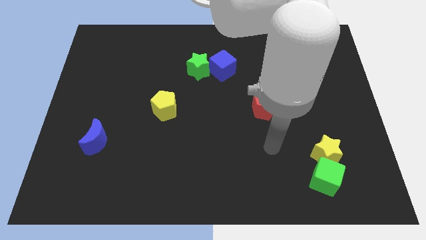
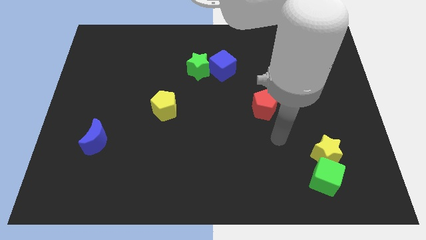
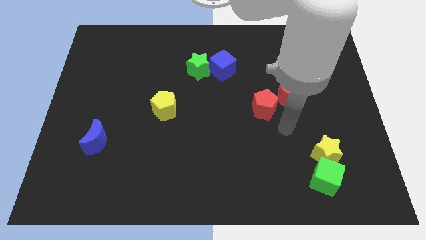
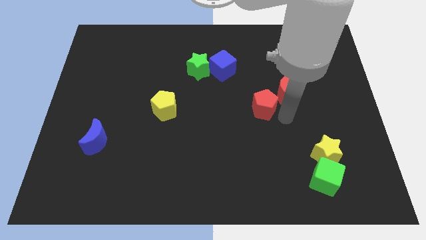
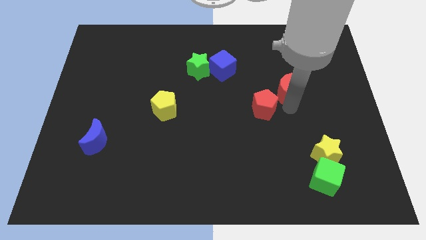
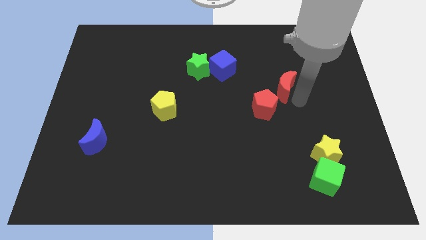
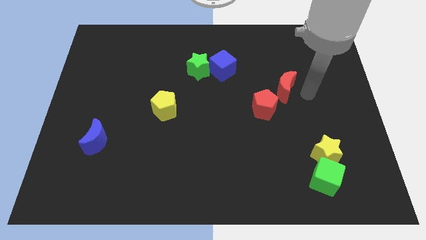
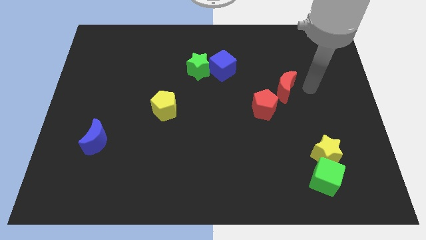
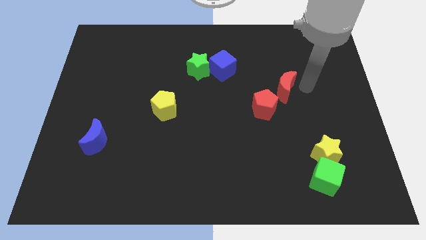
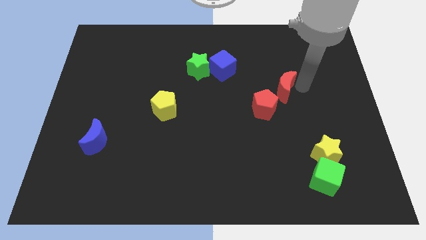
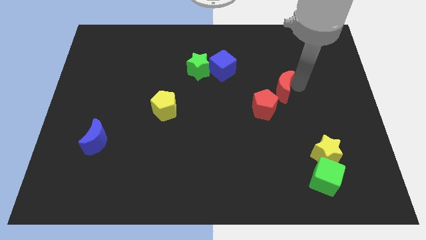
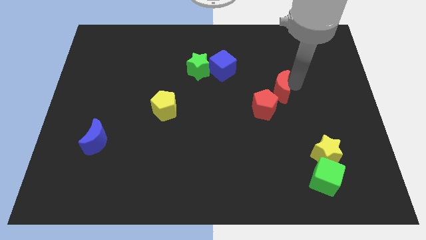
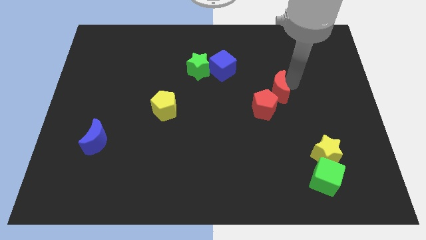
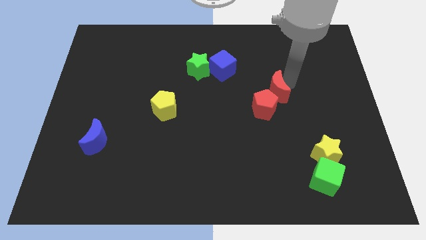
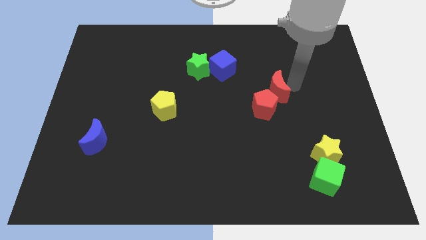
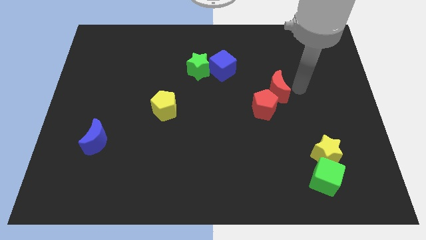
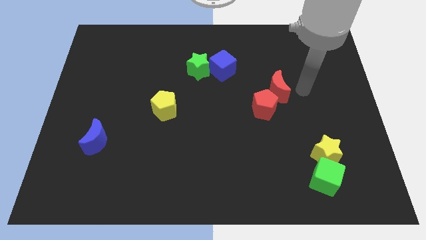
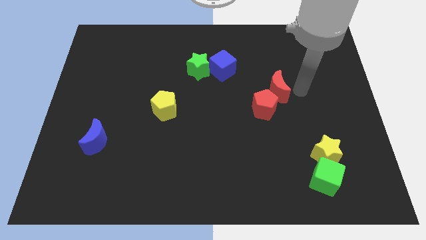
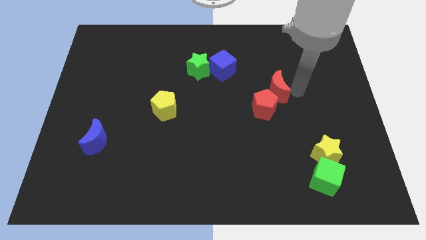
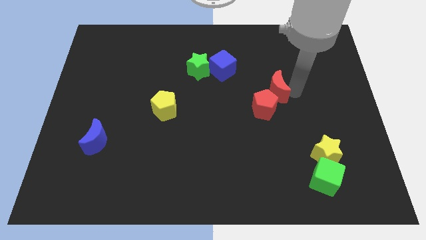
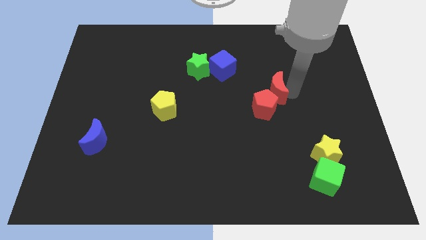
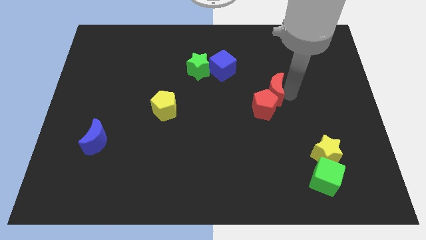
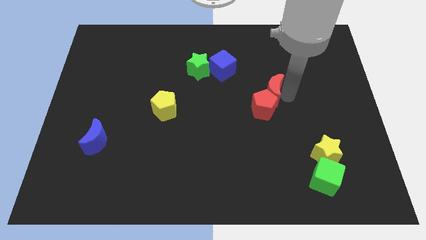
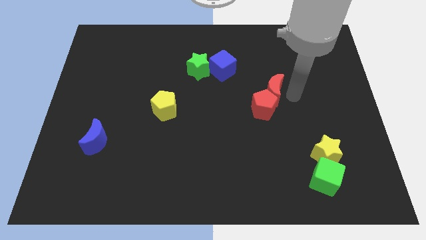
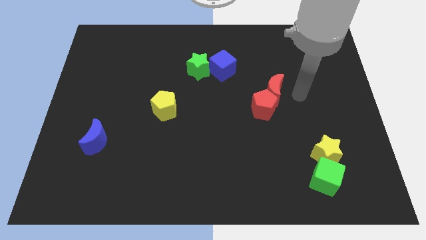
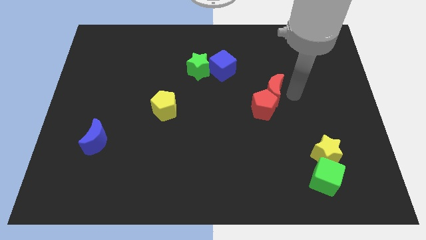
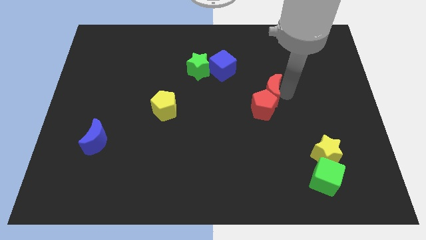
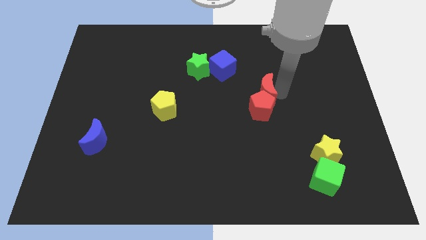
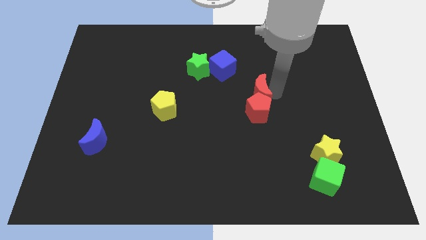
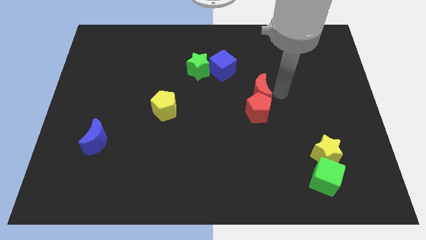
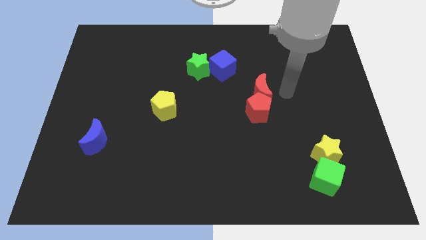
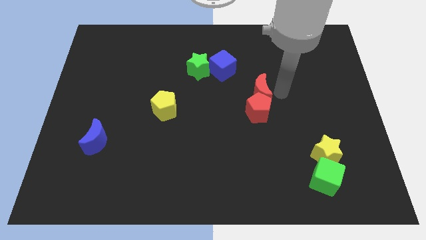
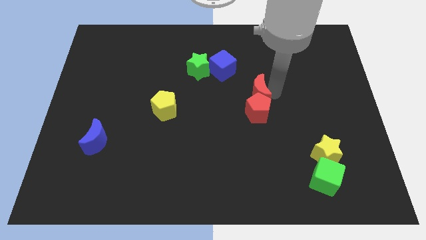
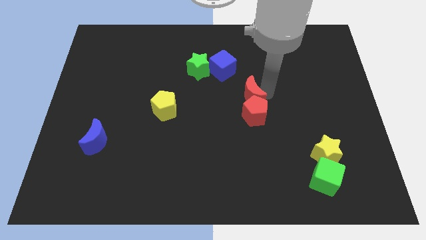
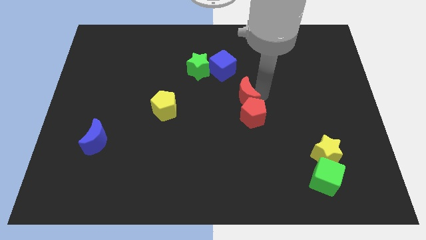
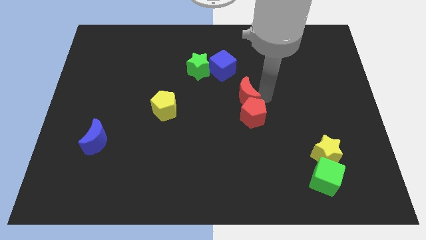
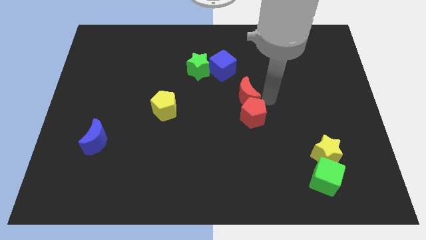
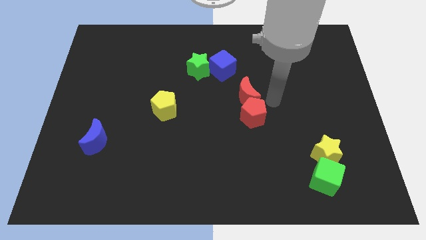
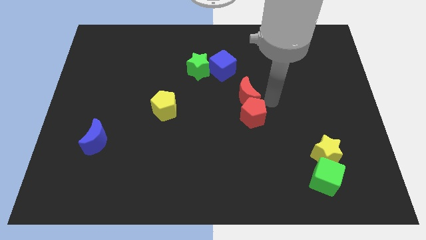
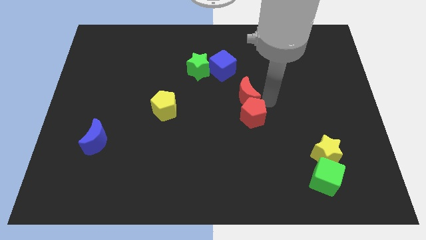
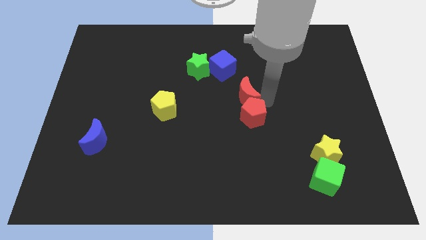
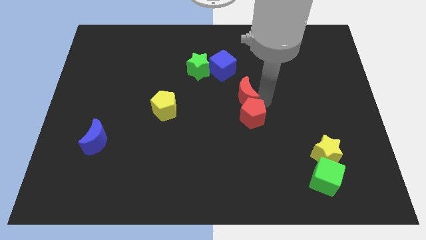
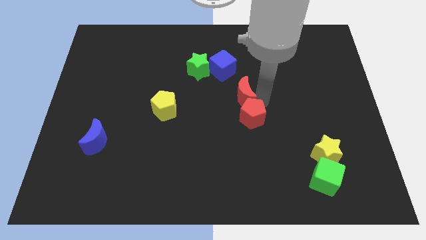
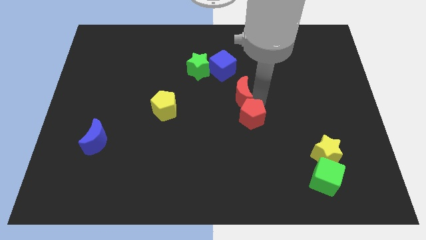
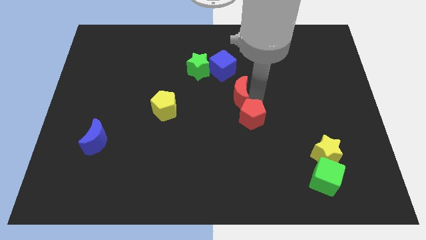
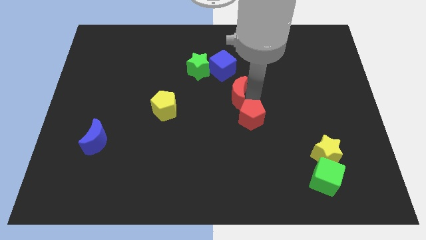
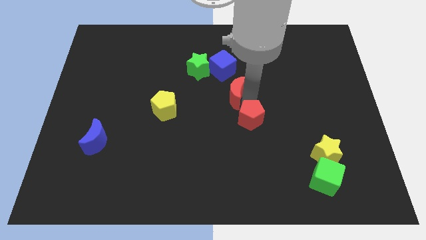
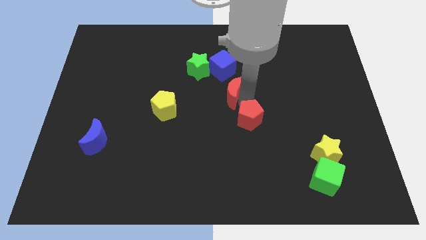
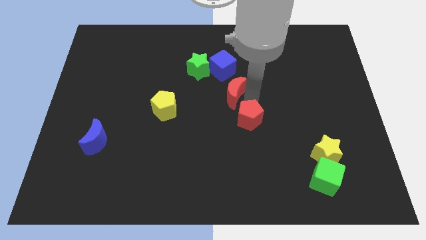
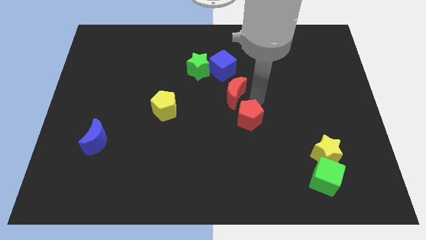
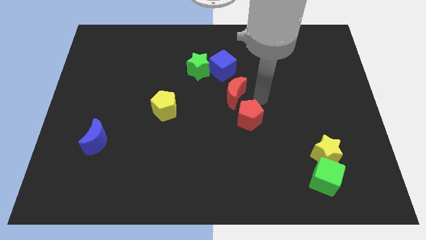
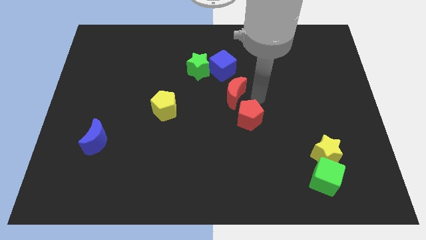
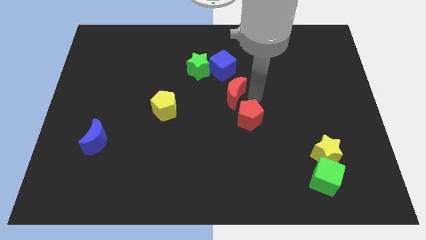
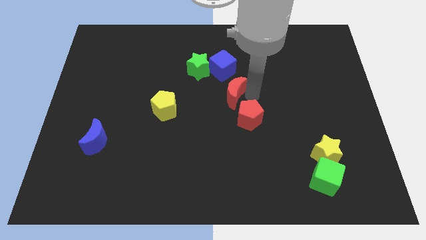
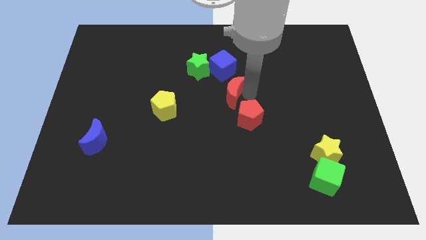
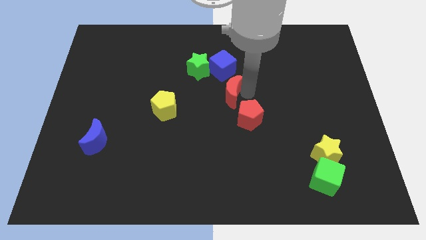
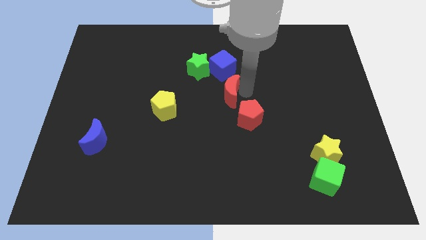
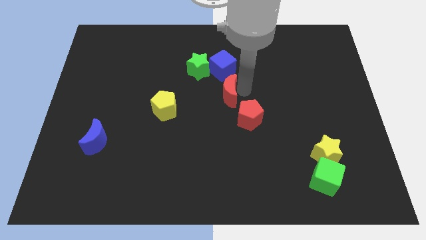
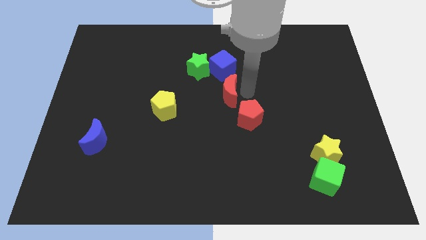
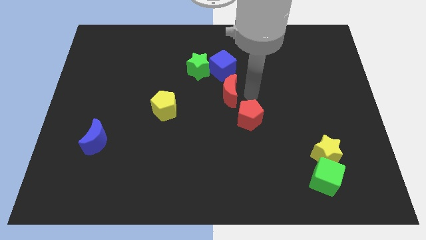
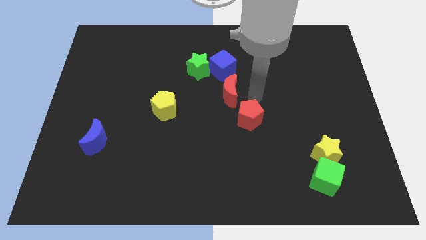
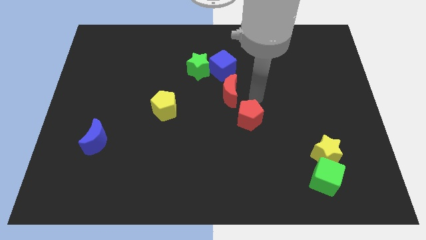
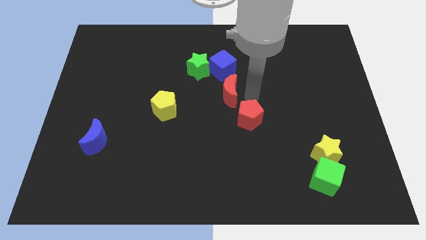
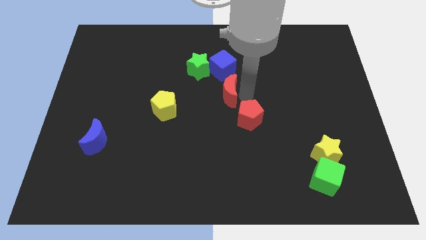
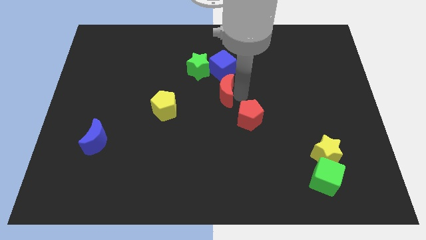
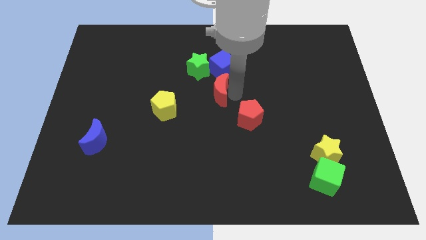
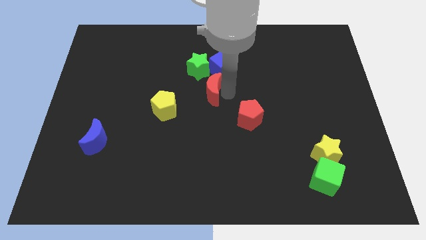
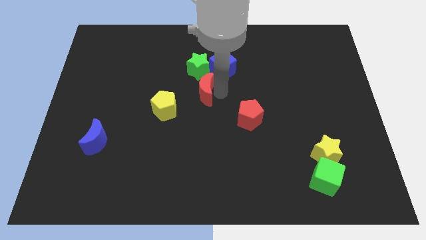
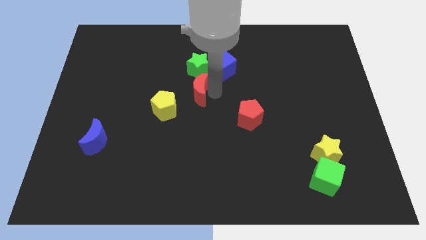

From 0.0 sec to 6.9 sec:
push the red moon left

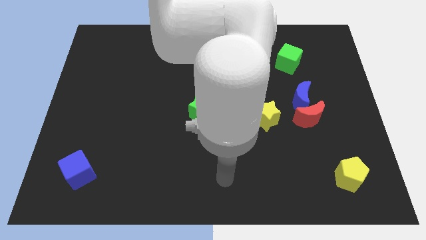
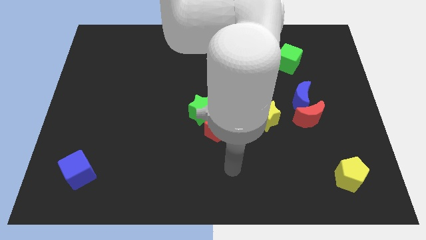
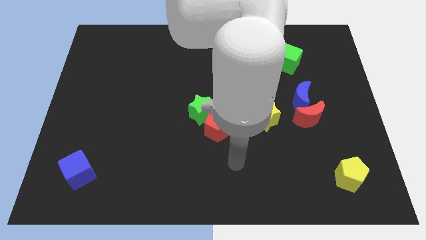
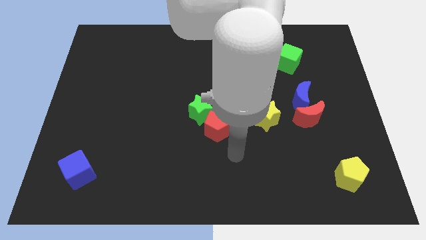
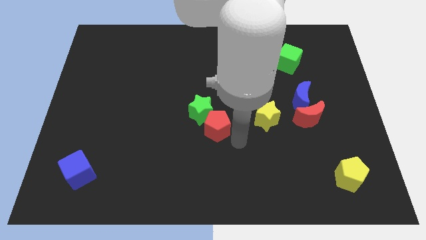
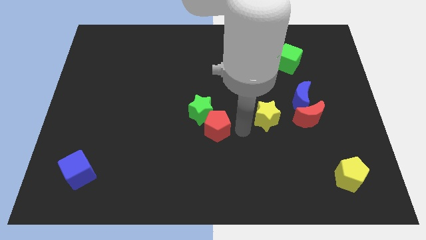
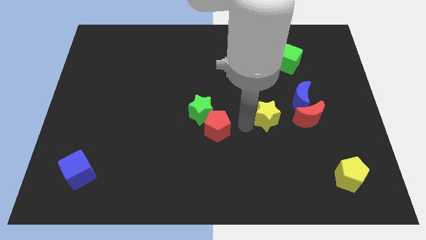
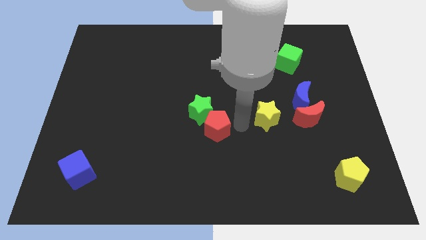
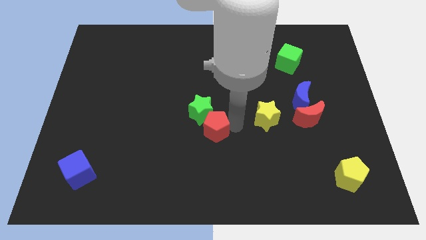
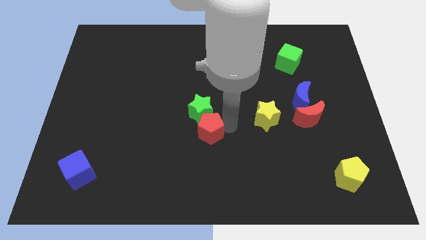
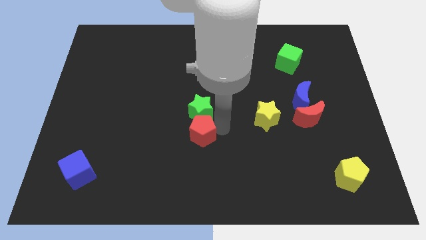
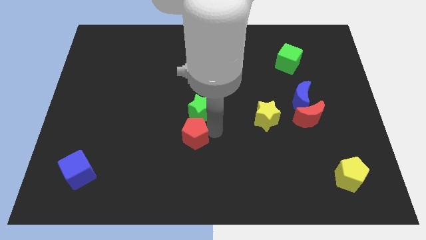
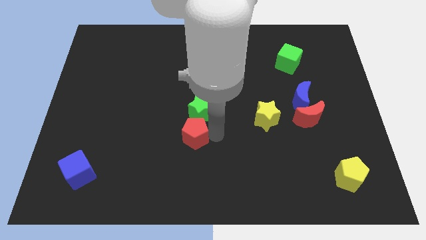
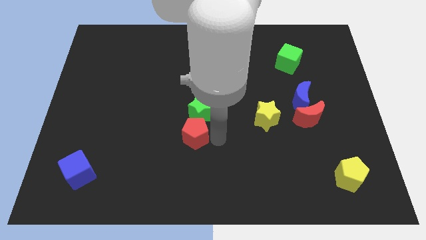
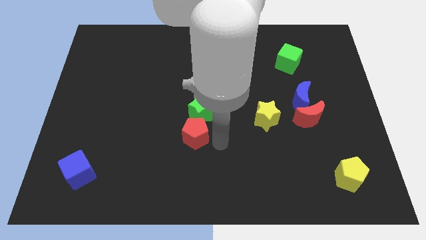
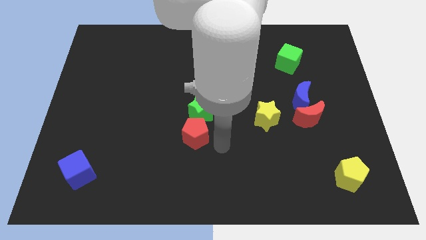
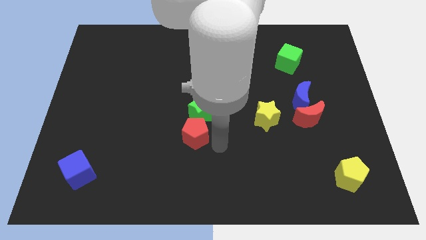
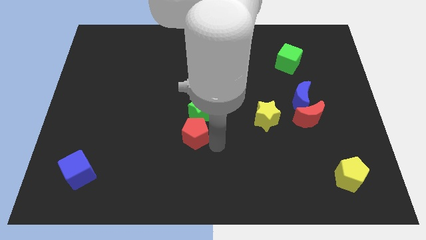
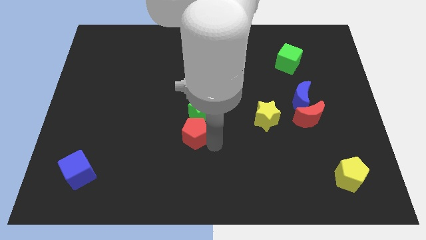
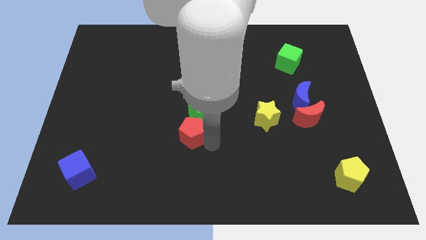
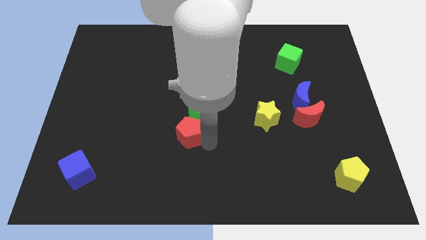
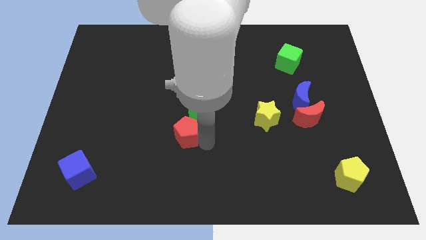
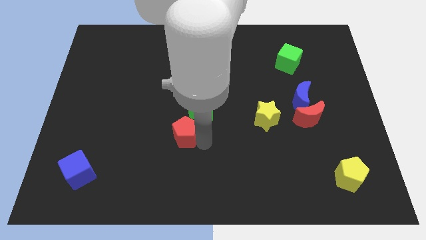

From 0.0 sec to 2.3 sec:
slide the red pentagon a bit left
